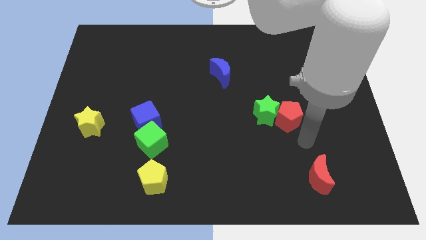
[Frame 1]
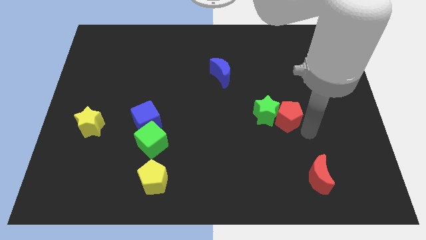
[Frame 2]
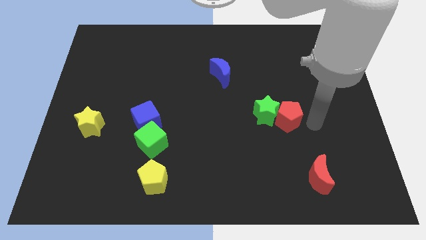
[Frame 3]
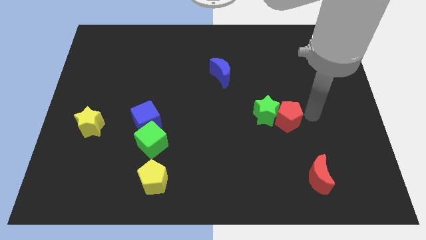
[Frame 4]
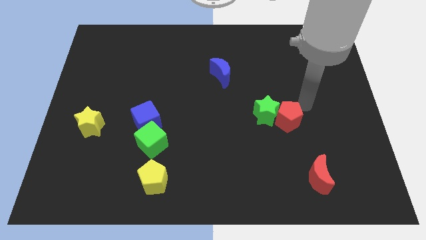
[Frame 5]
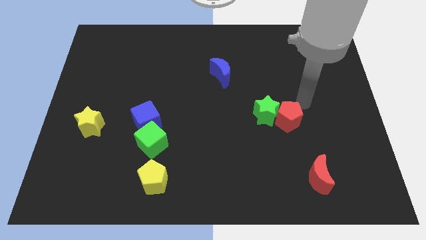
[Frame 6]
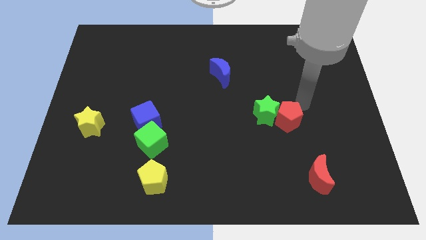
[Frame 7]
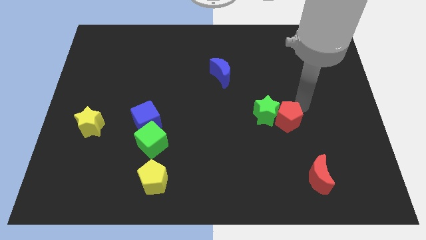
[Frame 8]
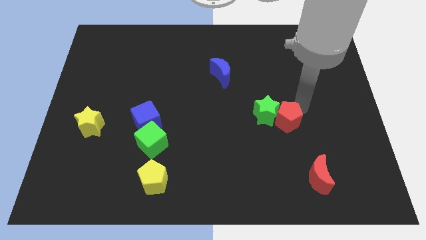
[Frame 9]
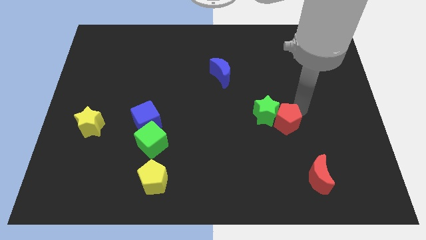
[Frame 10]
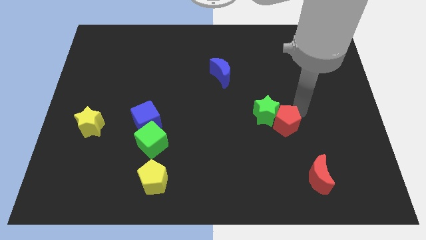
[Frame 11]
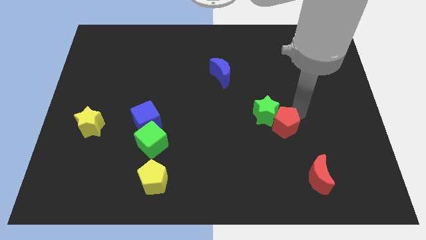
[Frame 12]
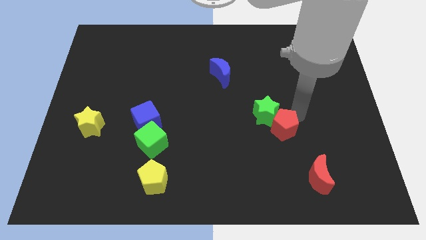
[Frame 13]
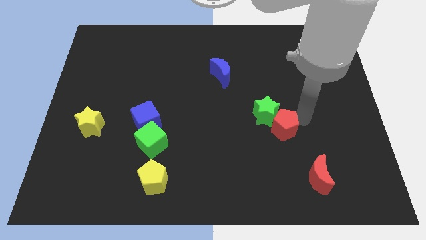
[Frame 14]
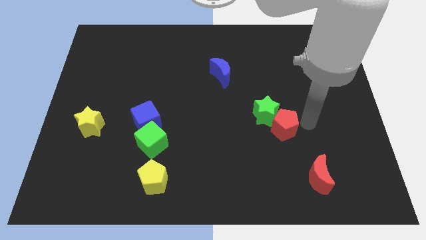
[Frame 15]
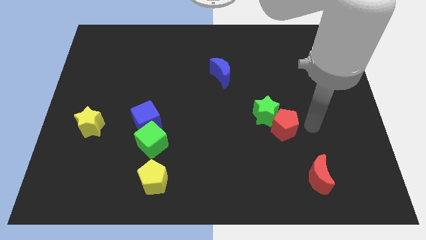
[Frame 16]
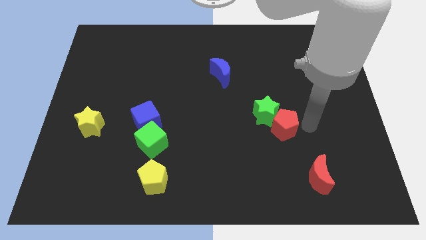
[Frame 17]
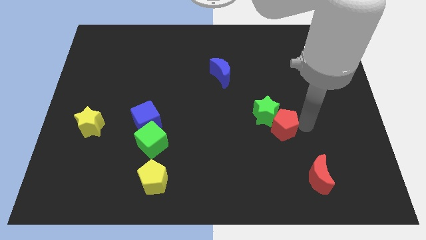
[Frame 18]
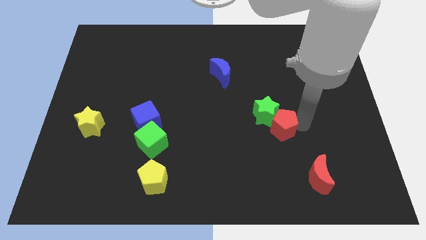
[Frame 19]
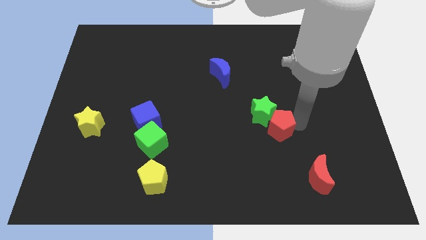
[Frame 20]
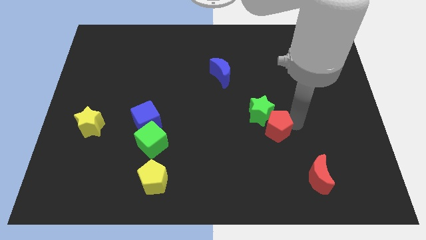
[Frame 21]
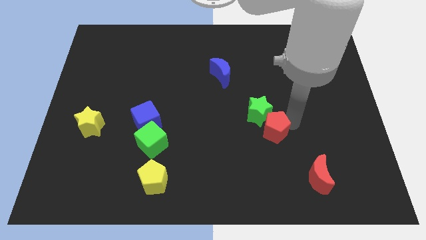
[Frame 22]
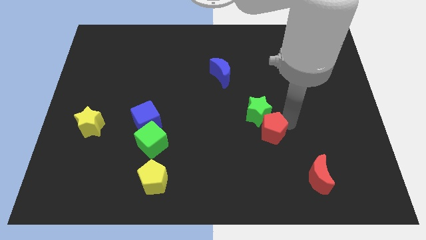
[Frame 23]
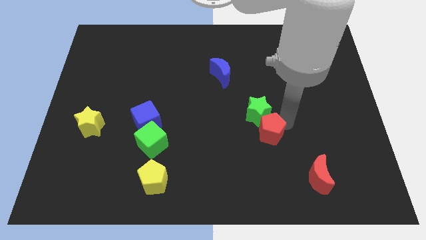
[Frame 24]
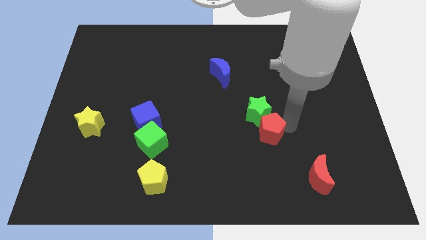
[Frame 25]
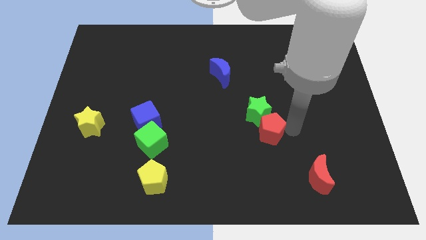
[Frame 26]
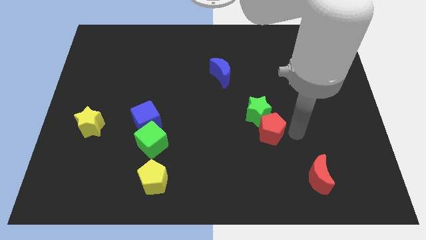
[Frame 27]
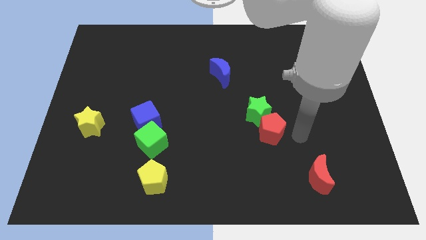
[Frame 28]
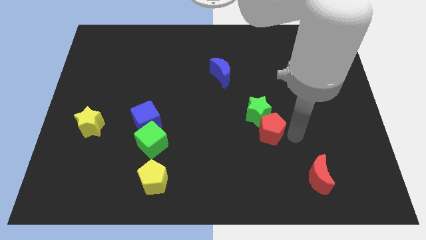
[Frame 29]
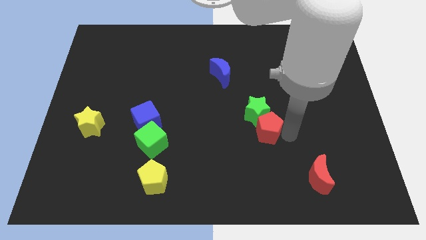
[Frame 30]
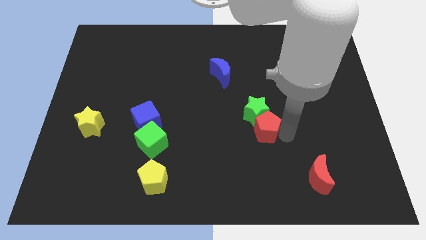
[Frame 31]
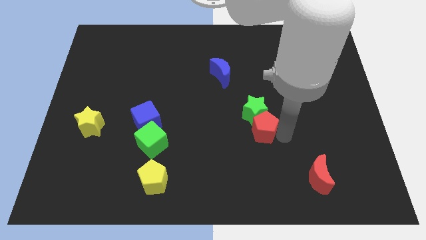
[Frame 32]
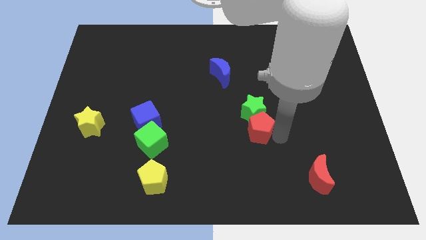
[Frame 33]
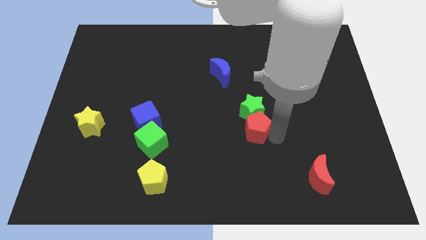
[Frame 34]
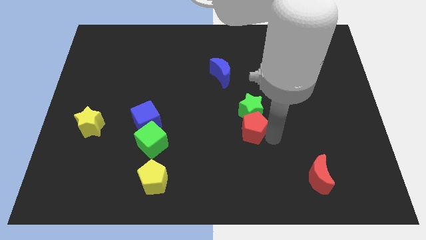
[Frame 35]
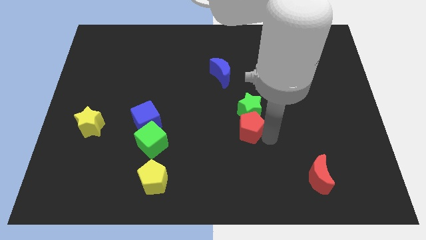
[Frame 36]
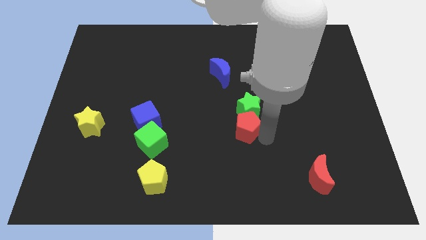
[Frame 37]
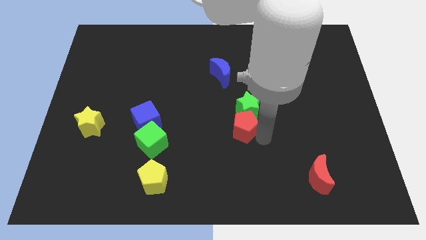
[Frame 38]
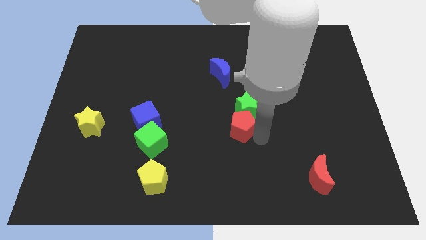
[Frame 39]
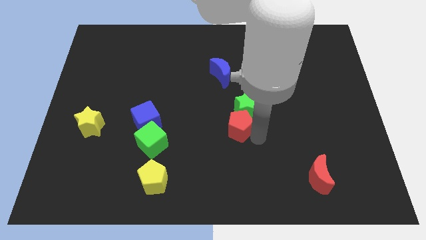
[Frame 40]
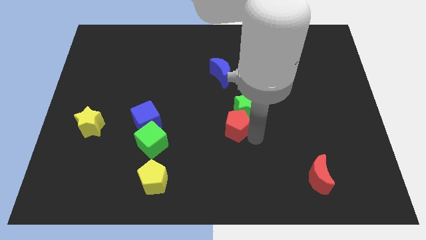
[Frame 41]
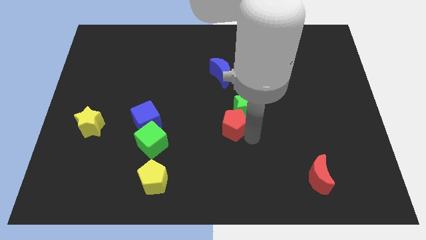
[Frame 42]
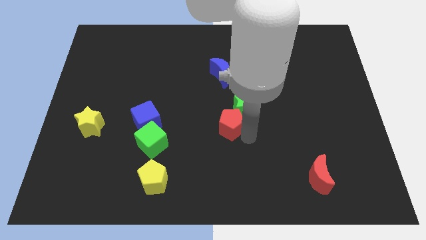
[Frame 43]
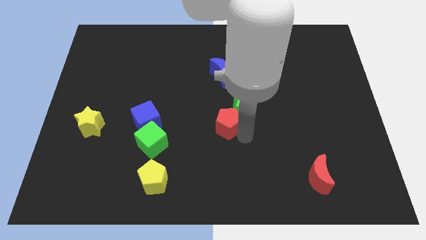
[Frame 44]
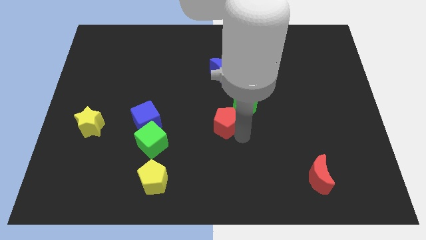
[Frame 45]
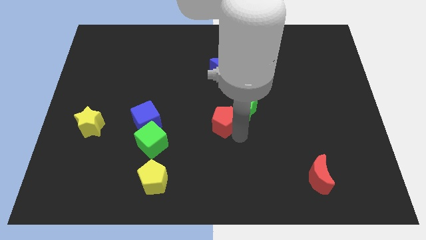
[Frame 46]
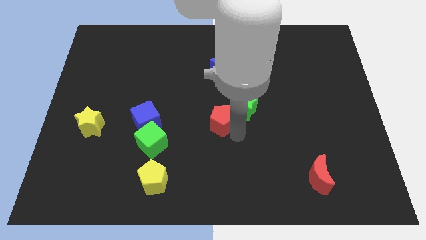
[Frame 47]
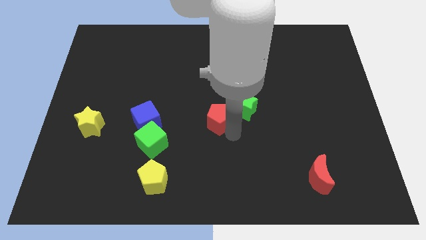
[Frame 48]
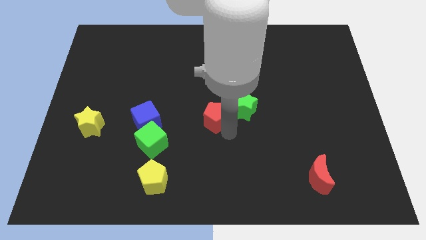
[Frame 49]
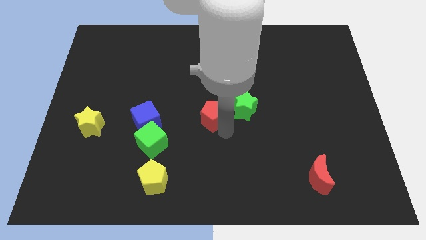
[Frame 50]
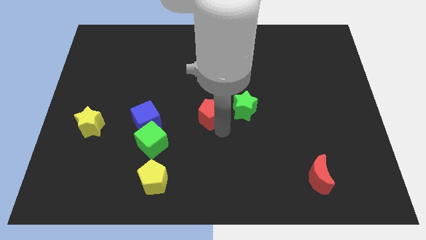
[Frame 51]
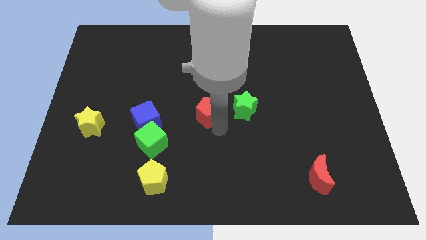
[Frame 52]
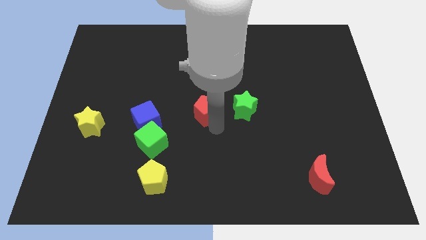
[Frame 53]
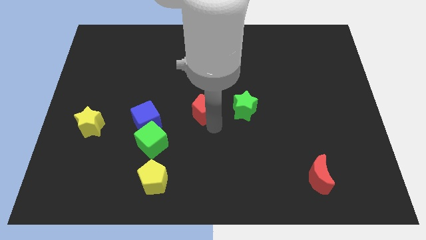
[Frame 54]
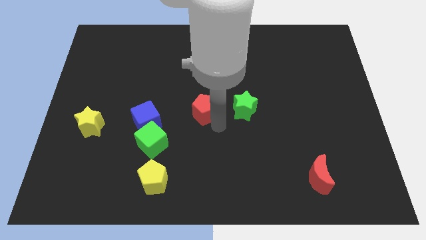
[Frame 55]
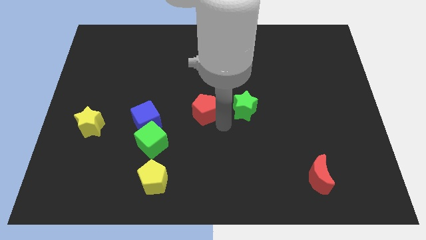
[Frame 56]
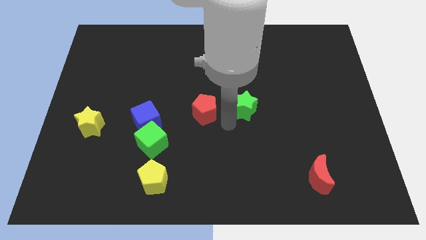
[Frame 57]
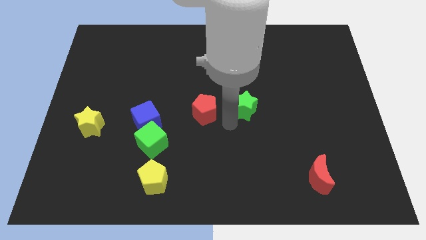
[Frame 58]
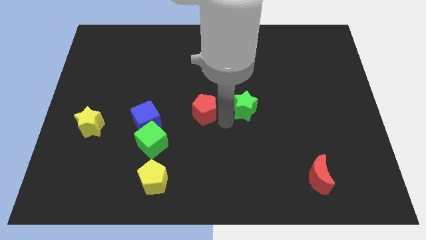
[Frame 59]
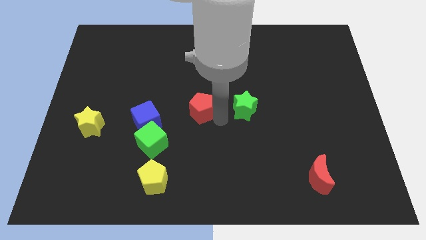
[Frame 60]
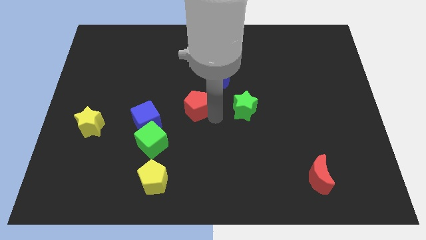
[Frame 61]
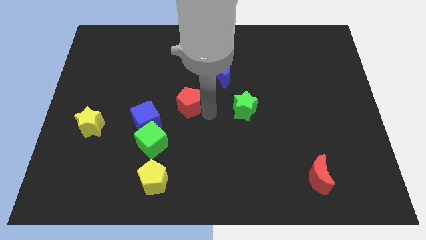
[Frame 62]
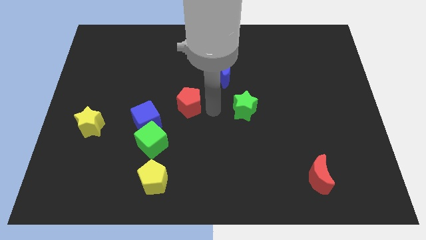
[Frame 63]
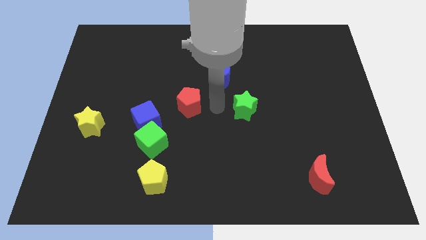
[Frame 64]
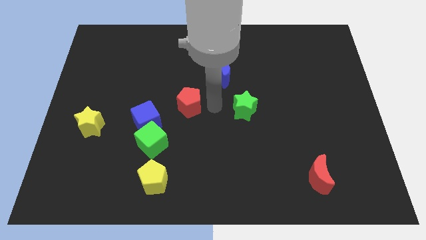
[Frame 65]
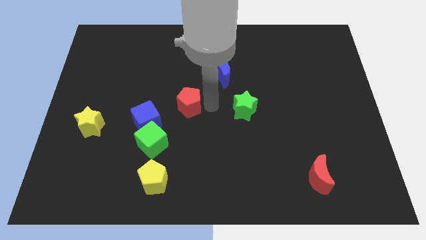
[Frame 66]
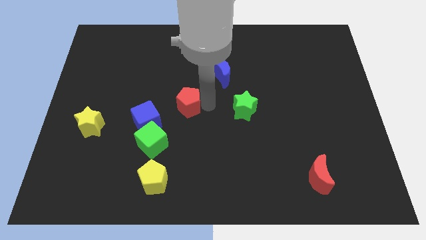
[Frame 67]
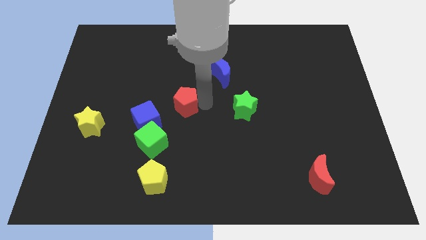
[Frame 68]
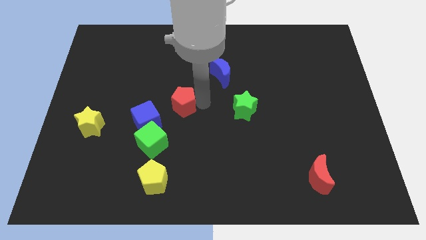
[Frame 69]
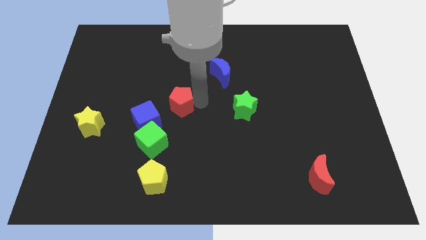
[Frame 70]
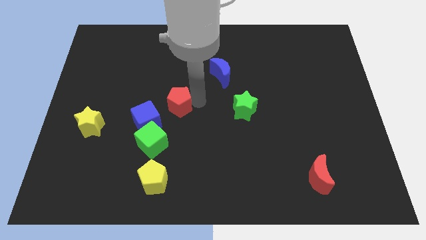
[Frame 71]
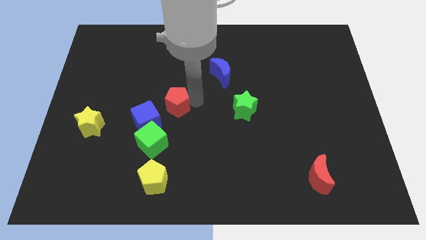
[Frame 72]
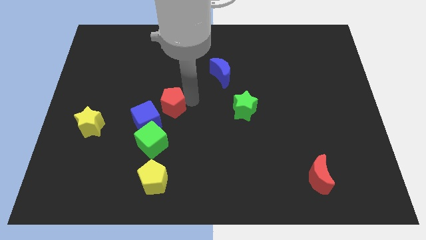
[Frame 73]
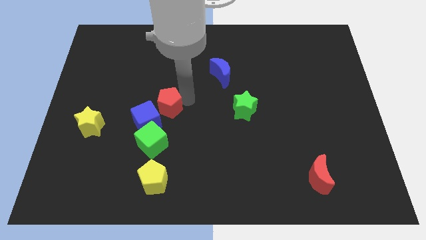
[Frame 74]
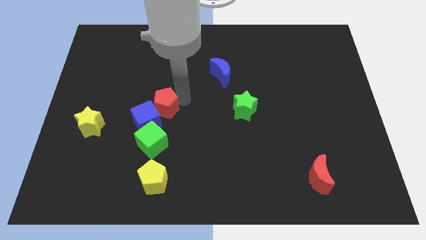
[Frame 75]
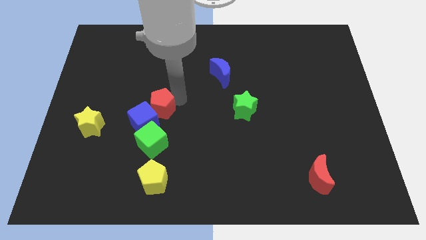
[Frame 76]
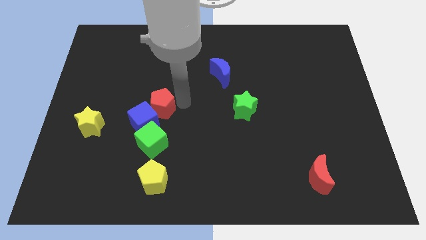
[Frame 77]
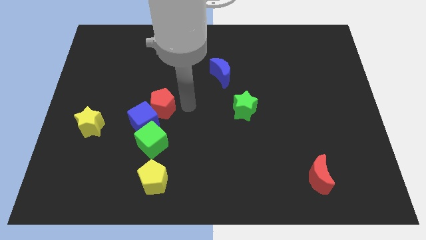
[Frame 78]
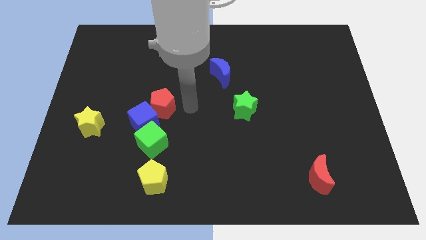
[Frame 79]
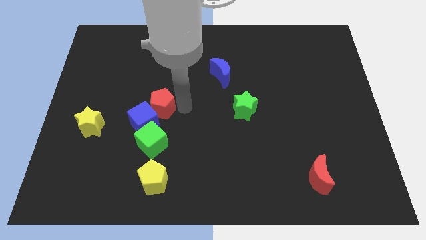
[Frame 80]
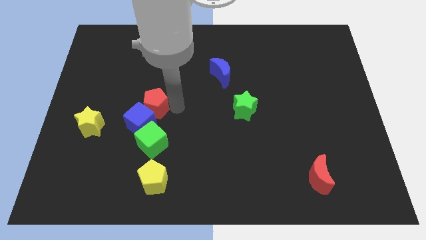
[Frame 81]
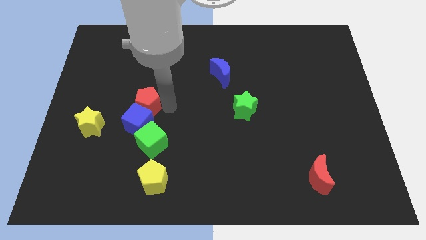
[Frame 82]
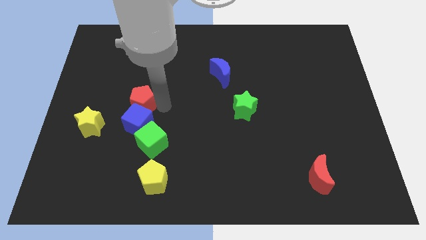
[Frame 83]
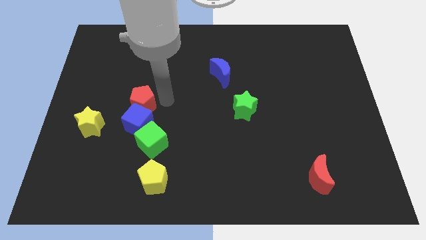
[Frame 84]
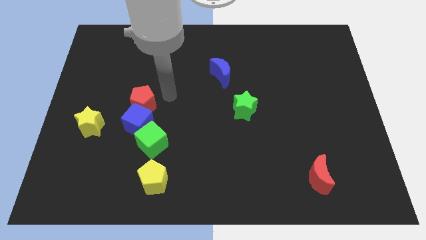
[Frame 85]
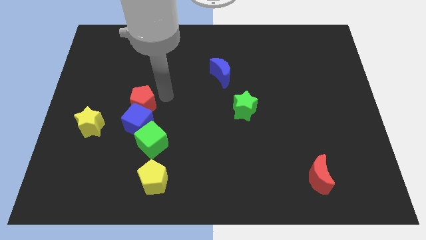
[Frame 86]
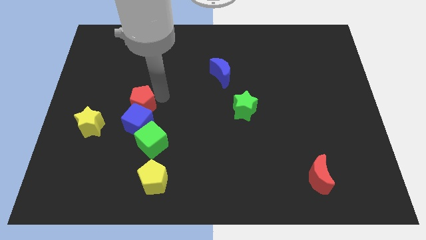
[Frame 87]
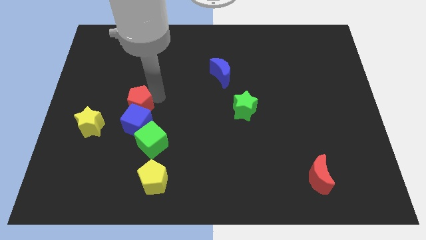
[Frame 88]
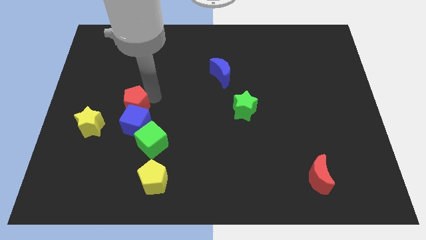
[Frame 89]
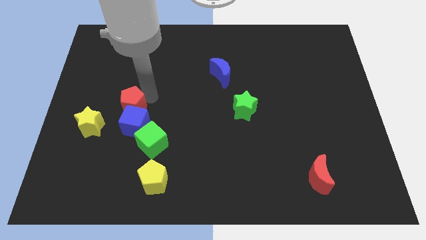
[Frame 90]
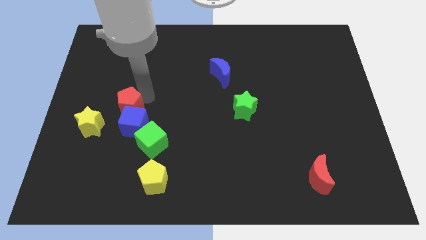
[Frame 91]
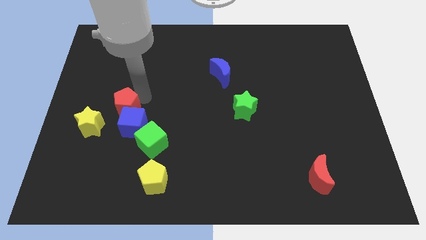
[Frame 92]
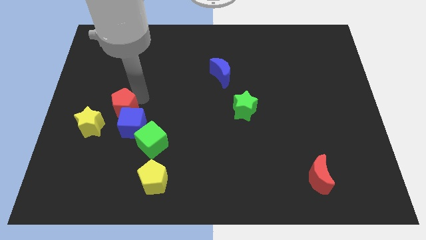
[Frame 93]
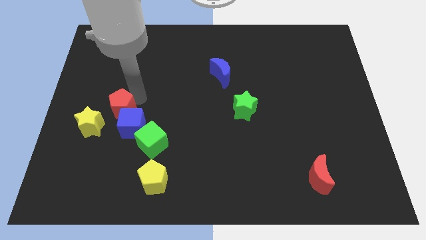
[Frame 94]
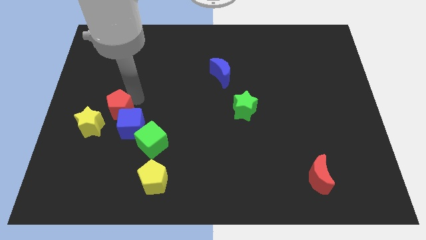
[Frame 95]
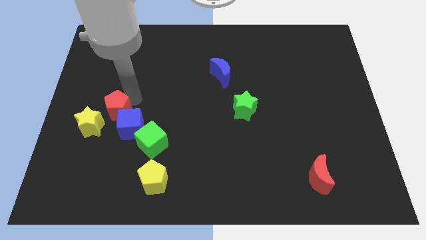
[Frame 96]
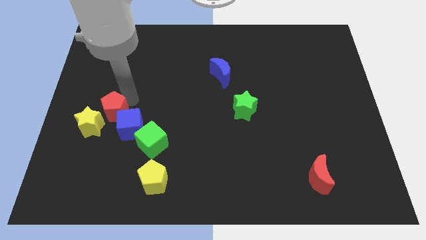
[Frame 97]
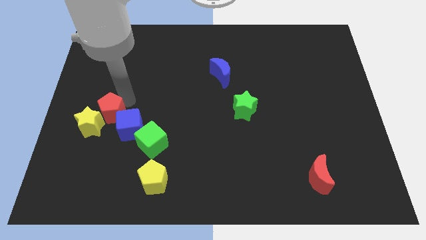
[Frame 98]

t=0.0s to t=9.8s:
push the red pentagon close to the yellow star
